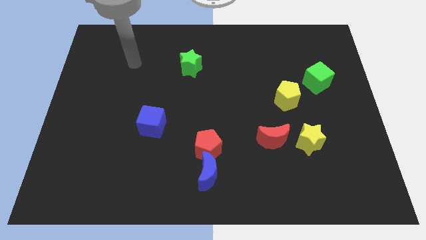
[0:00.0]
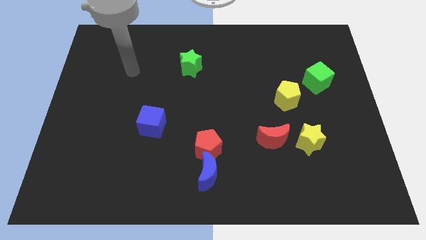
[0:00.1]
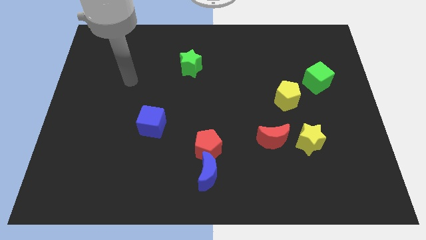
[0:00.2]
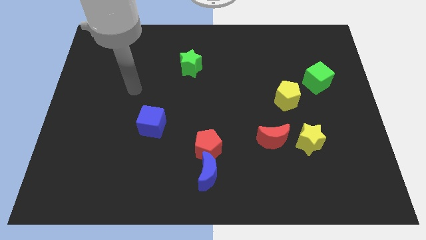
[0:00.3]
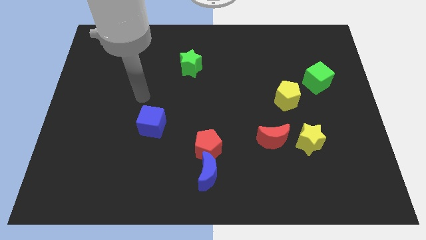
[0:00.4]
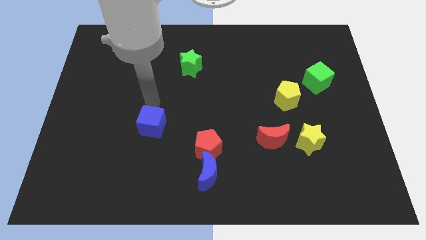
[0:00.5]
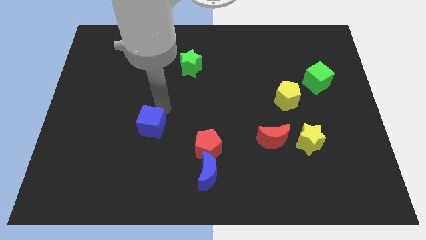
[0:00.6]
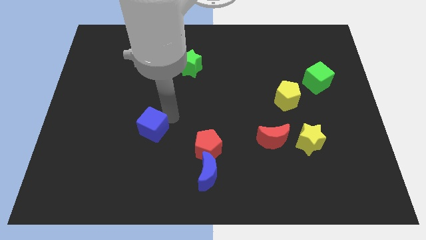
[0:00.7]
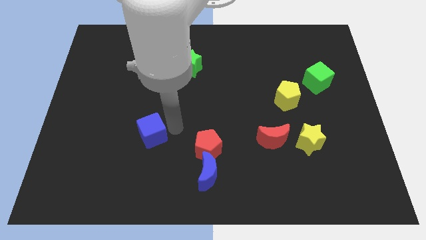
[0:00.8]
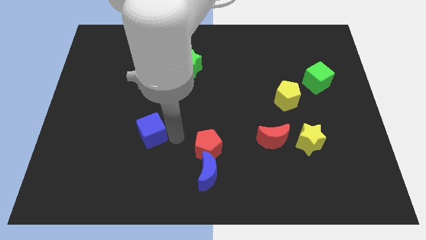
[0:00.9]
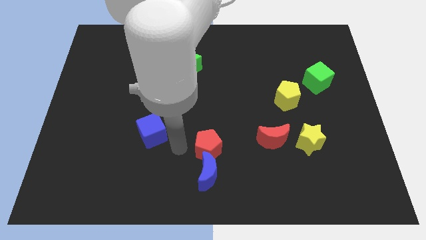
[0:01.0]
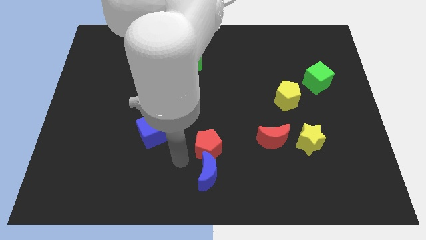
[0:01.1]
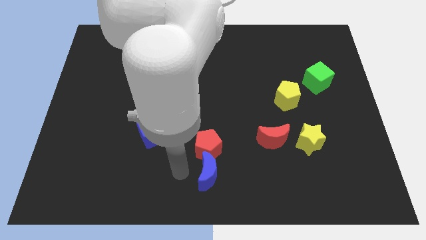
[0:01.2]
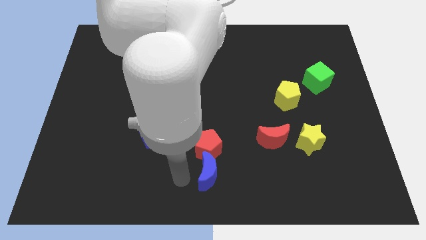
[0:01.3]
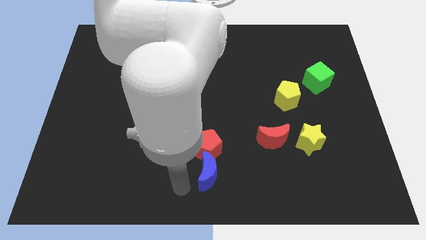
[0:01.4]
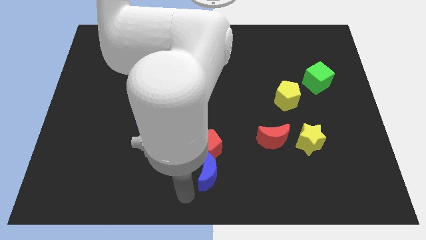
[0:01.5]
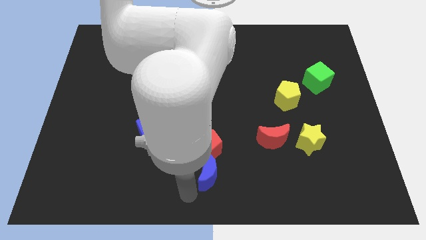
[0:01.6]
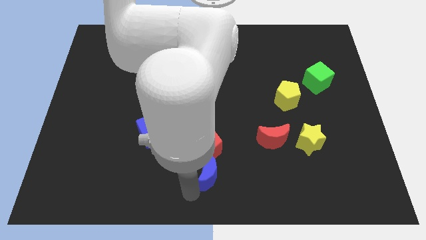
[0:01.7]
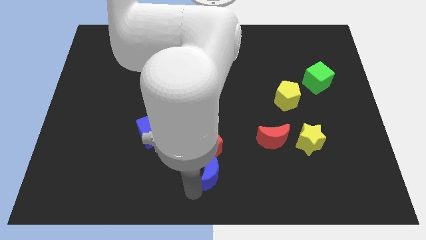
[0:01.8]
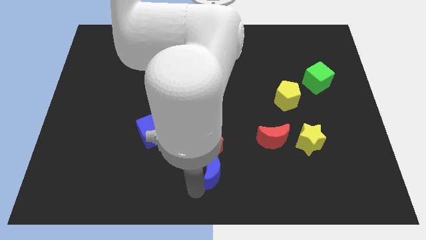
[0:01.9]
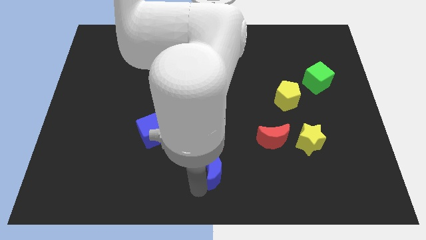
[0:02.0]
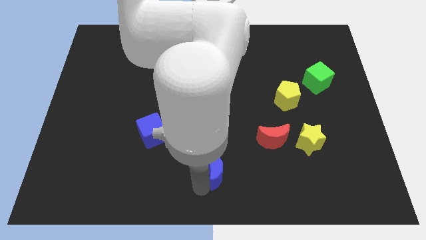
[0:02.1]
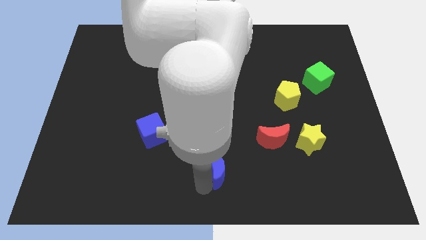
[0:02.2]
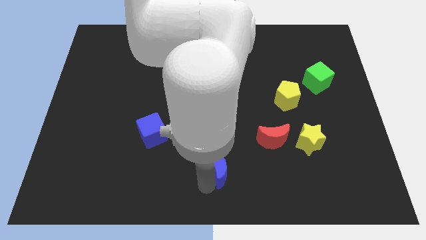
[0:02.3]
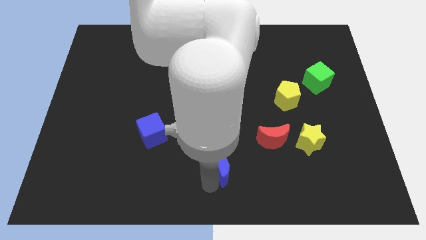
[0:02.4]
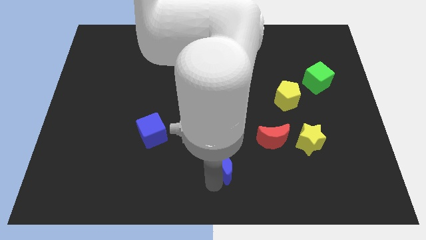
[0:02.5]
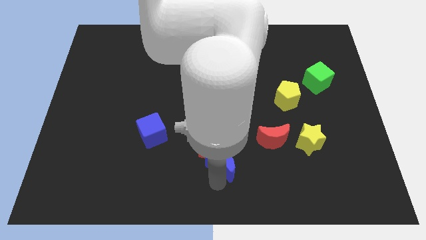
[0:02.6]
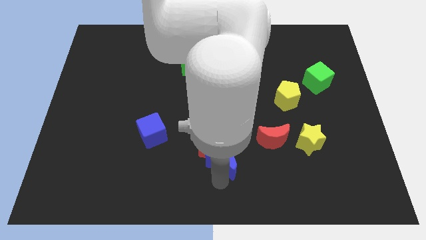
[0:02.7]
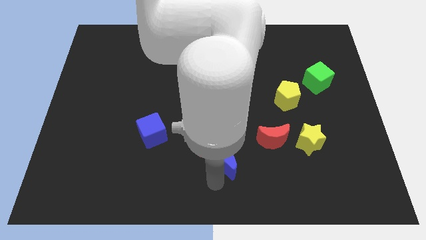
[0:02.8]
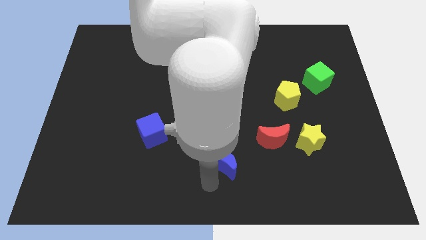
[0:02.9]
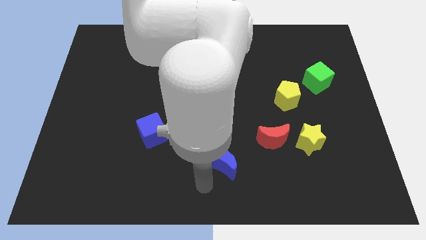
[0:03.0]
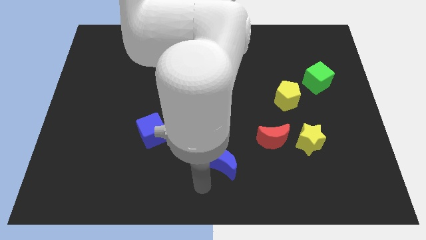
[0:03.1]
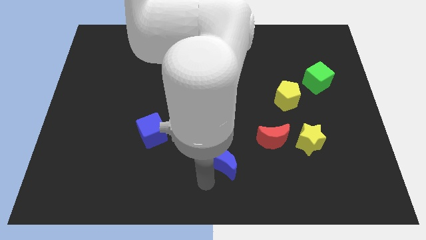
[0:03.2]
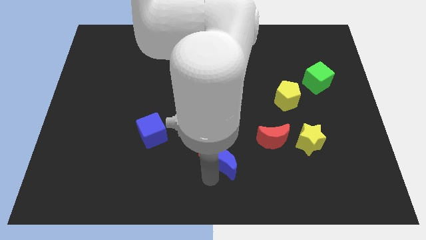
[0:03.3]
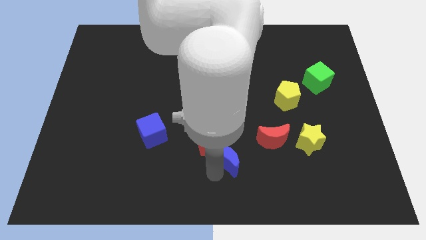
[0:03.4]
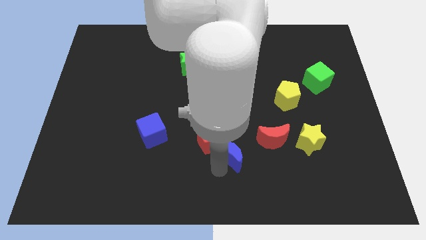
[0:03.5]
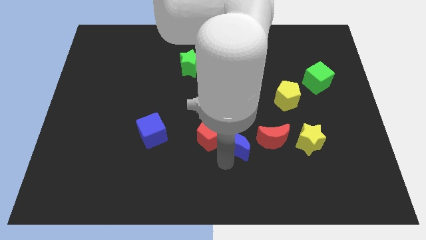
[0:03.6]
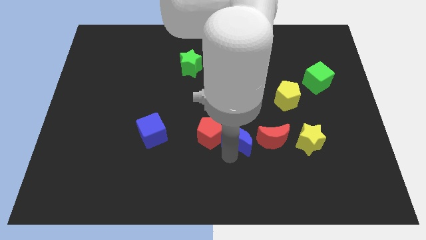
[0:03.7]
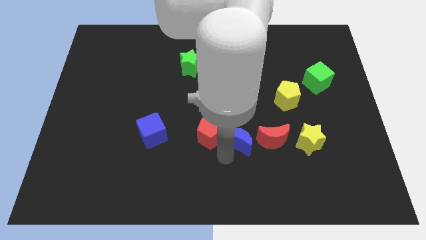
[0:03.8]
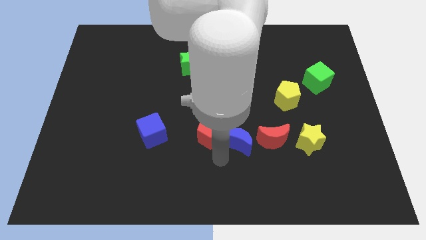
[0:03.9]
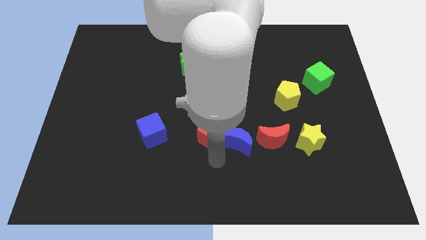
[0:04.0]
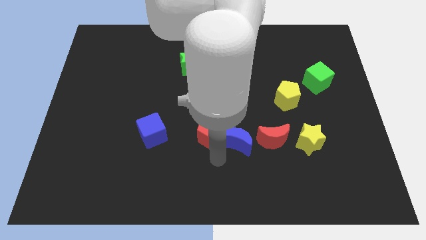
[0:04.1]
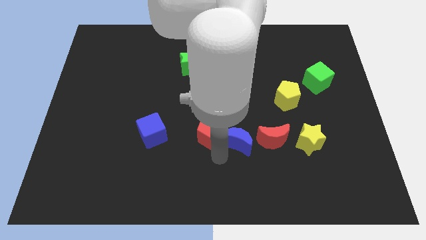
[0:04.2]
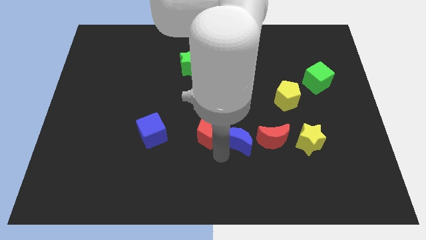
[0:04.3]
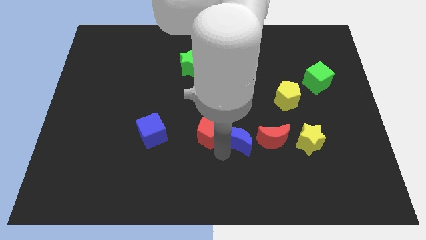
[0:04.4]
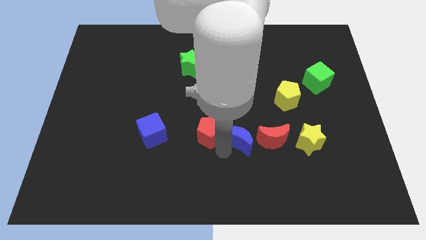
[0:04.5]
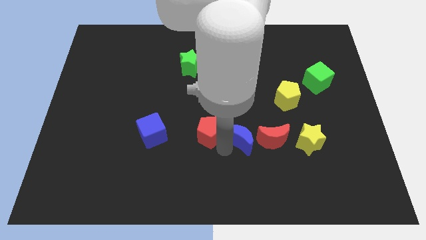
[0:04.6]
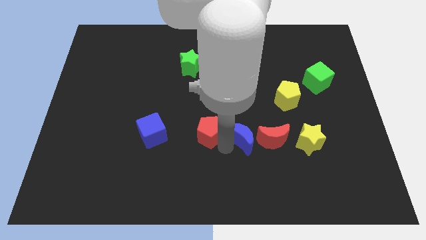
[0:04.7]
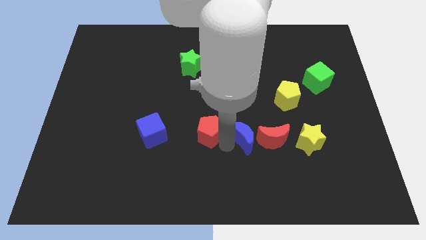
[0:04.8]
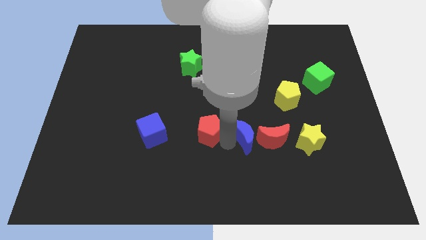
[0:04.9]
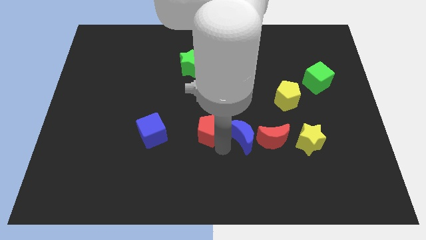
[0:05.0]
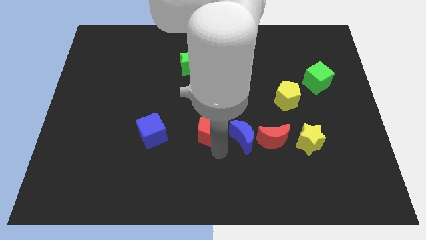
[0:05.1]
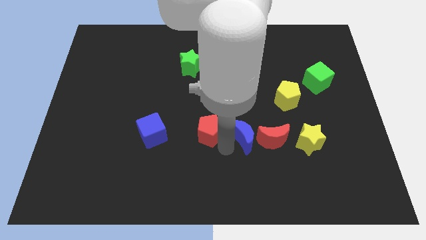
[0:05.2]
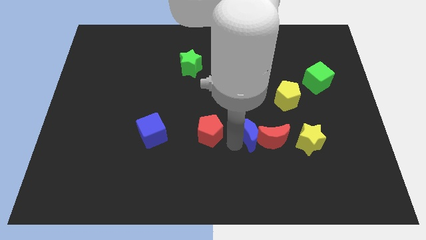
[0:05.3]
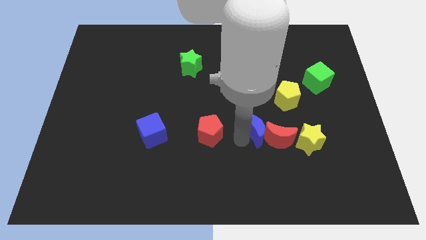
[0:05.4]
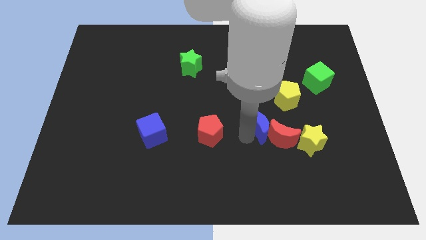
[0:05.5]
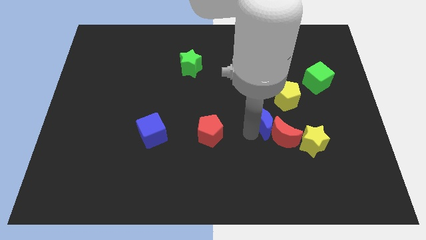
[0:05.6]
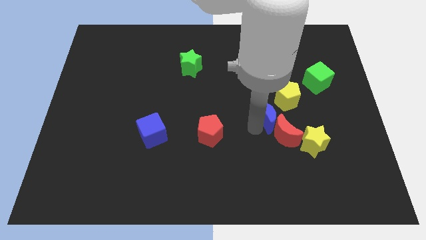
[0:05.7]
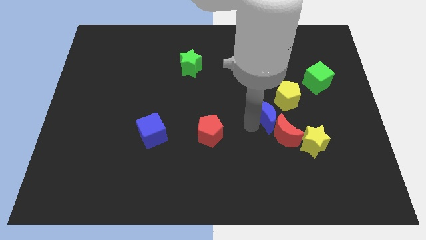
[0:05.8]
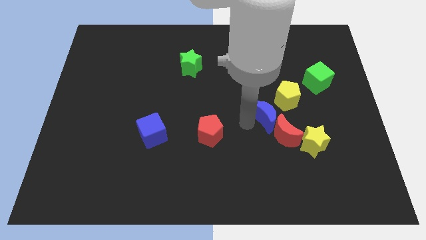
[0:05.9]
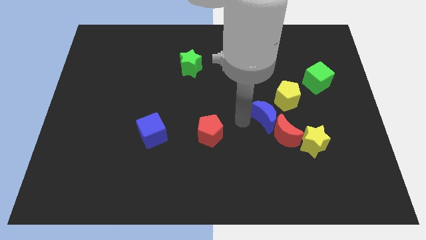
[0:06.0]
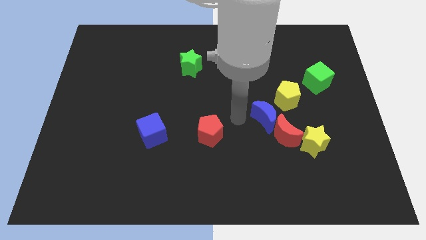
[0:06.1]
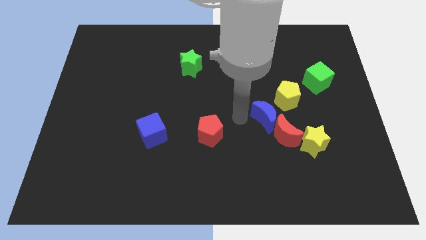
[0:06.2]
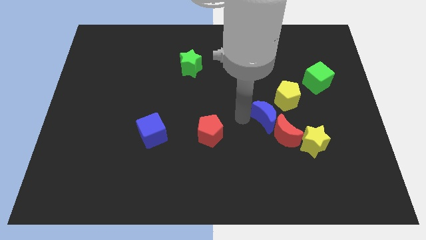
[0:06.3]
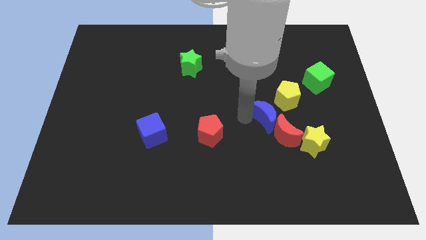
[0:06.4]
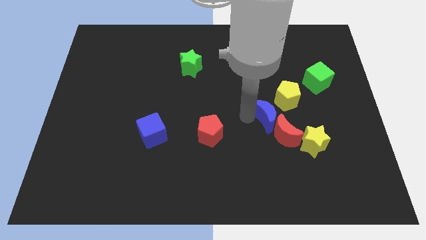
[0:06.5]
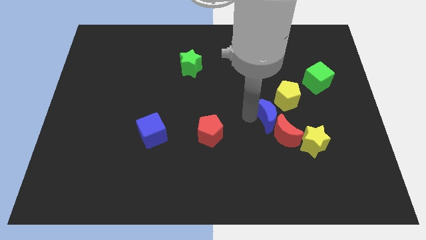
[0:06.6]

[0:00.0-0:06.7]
slide the blue moon diagonally up and to the right

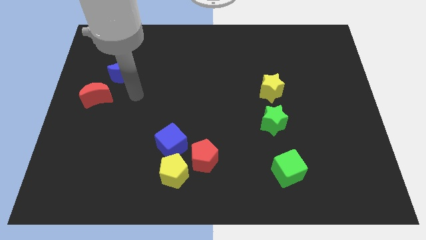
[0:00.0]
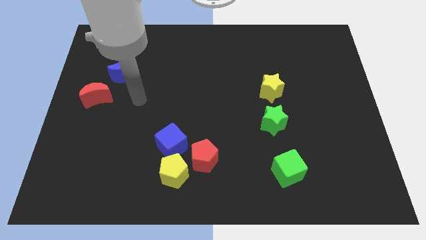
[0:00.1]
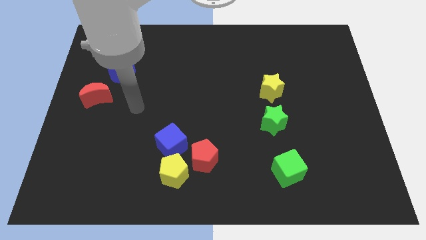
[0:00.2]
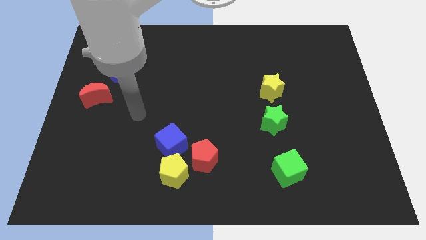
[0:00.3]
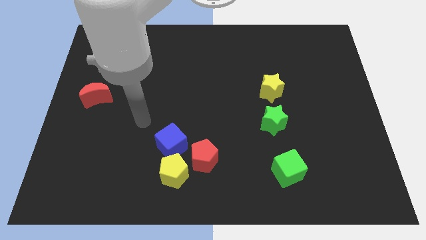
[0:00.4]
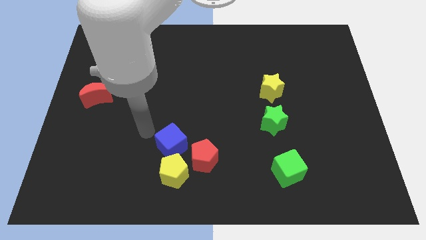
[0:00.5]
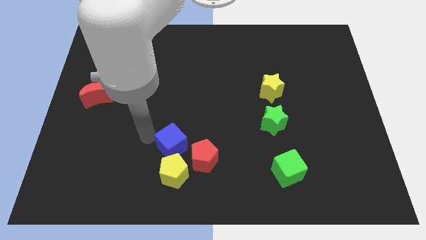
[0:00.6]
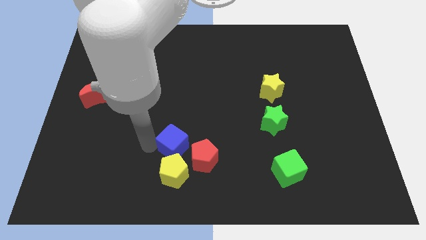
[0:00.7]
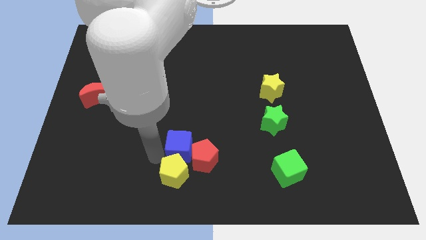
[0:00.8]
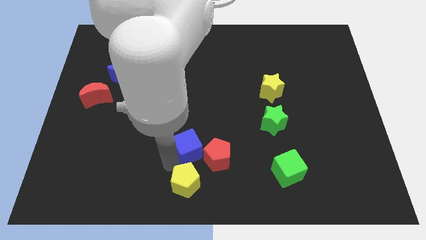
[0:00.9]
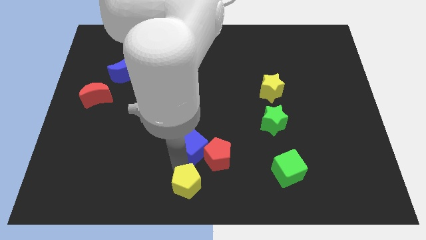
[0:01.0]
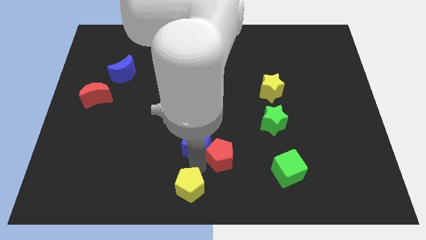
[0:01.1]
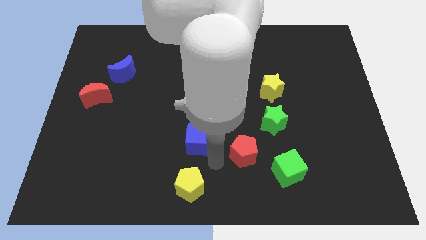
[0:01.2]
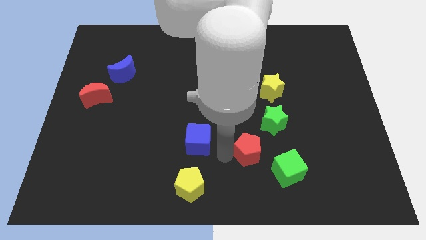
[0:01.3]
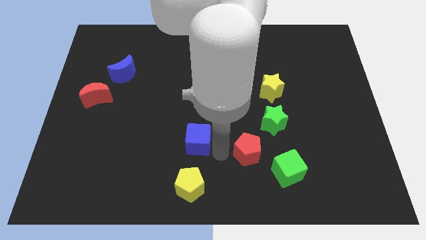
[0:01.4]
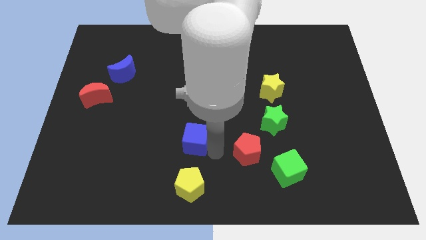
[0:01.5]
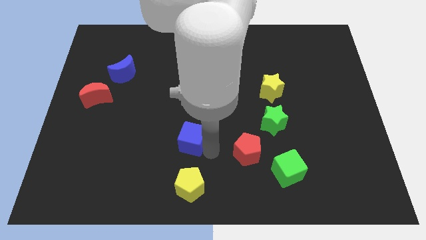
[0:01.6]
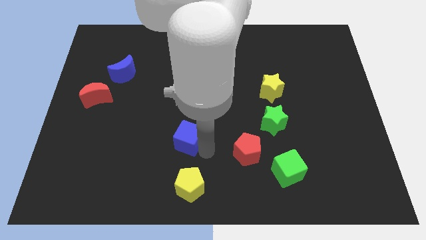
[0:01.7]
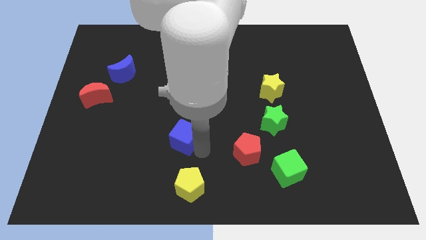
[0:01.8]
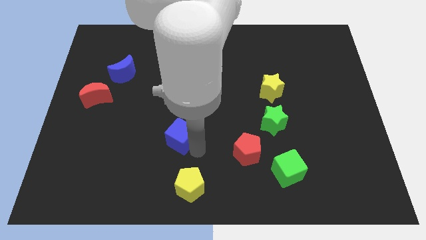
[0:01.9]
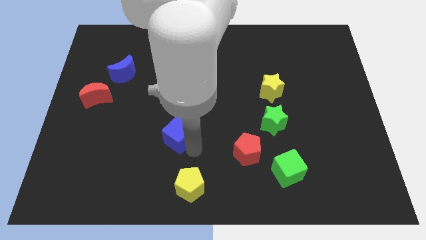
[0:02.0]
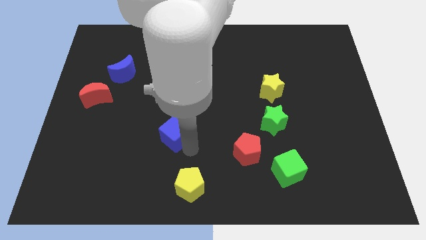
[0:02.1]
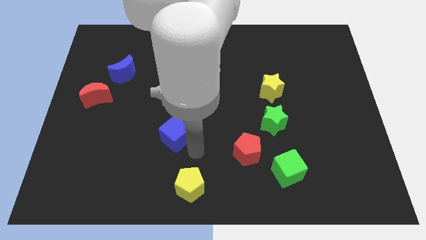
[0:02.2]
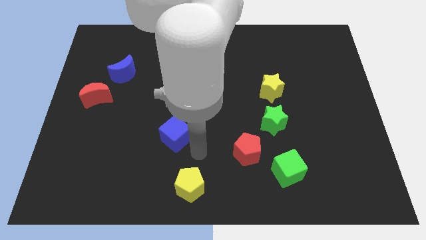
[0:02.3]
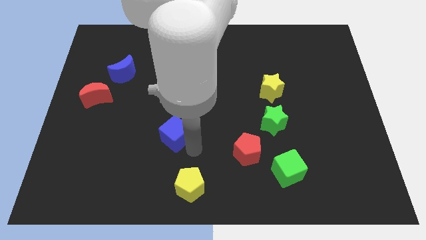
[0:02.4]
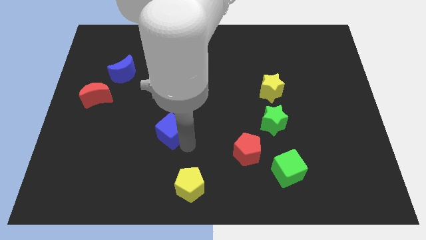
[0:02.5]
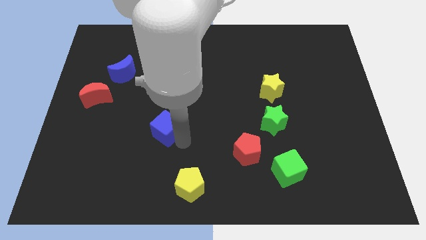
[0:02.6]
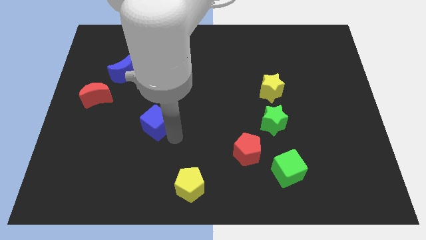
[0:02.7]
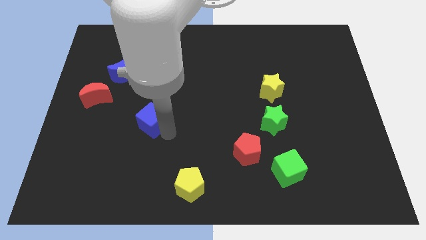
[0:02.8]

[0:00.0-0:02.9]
push the blue cube a bit up and then left
